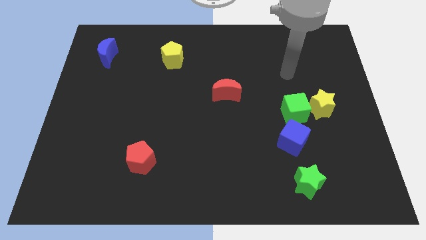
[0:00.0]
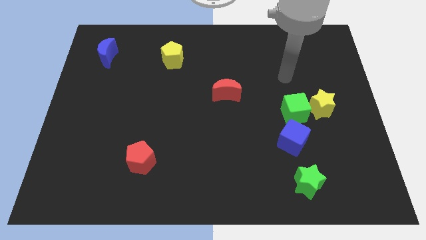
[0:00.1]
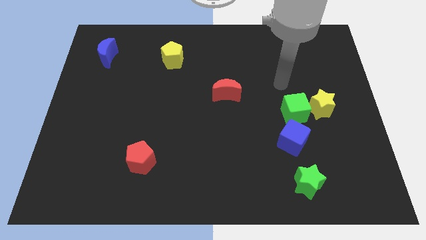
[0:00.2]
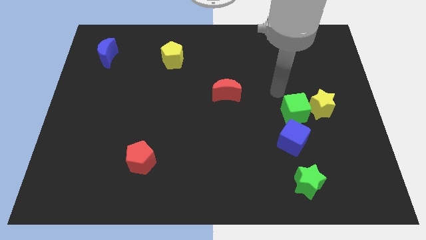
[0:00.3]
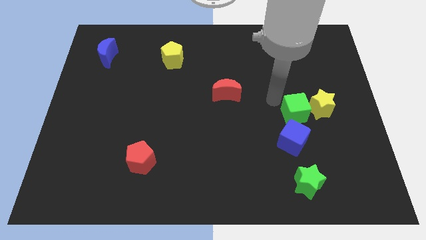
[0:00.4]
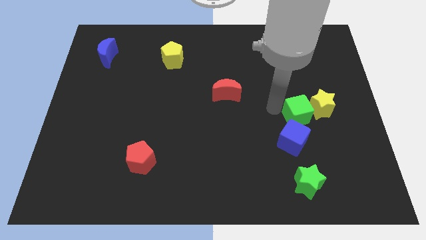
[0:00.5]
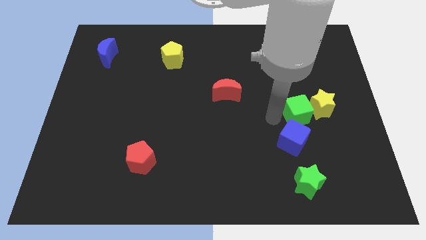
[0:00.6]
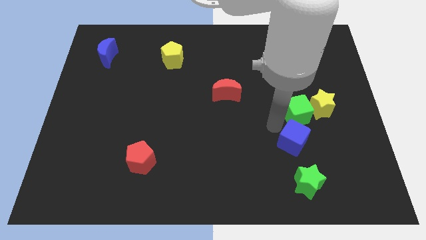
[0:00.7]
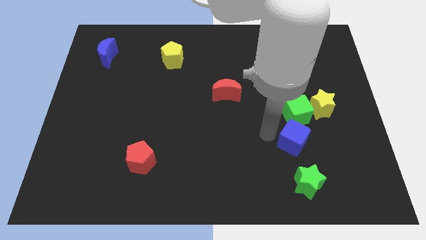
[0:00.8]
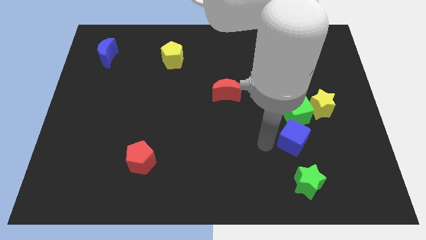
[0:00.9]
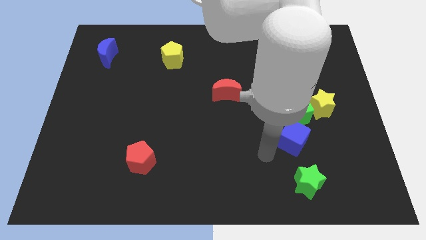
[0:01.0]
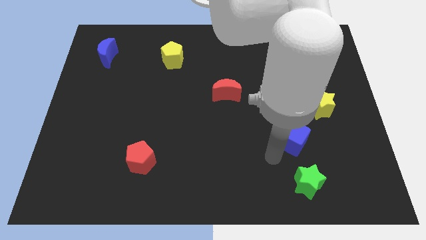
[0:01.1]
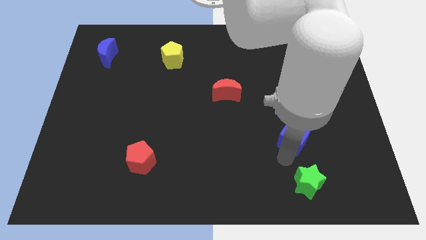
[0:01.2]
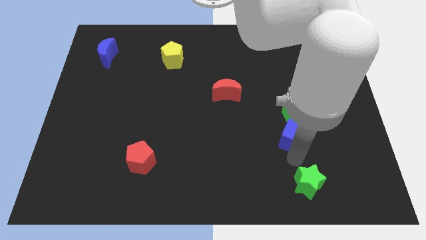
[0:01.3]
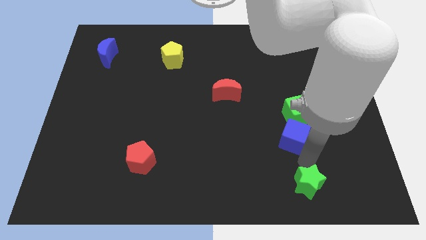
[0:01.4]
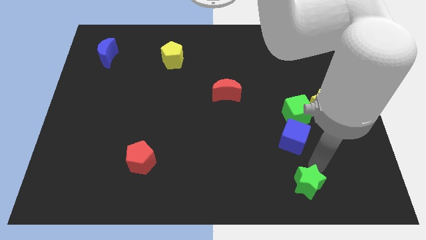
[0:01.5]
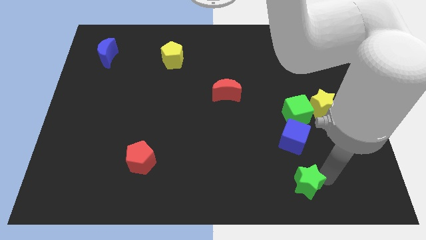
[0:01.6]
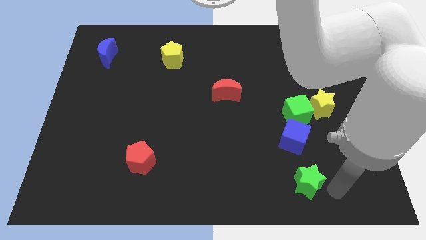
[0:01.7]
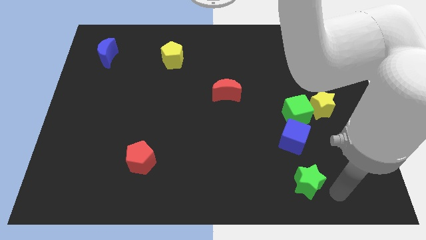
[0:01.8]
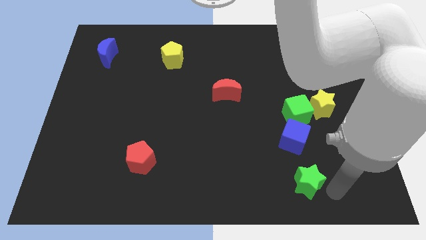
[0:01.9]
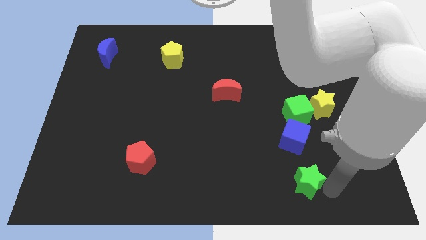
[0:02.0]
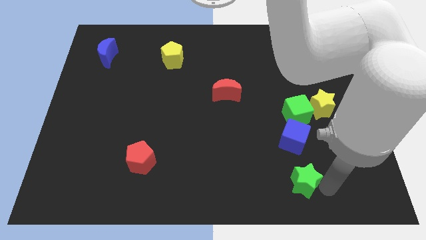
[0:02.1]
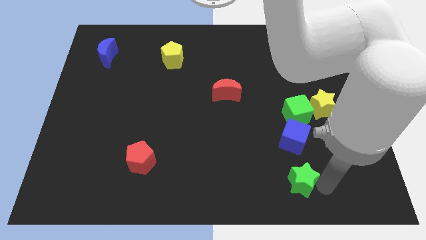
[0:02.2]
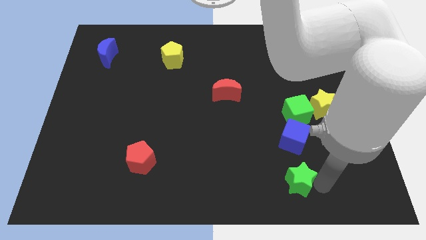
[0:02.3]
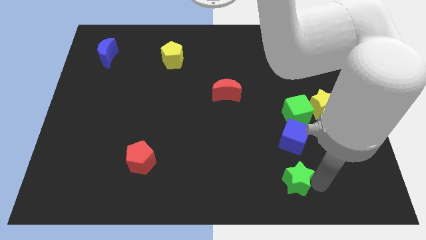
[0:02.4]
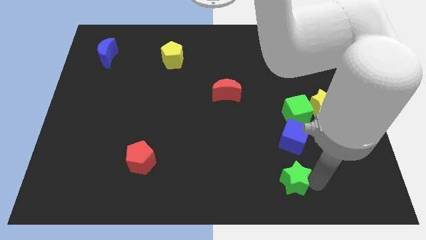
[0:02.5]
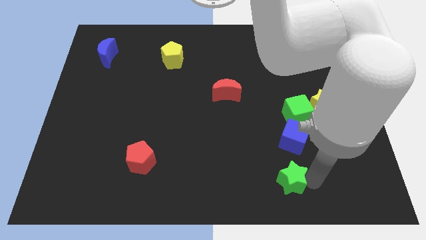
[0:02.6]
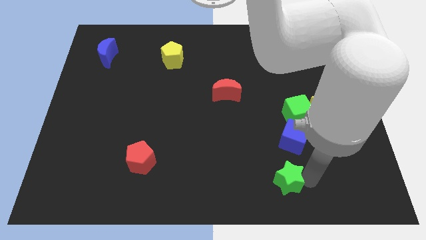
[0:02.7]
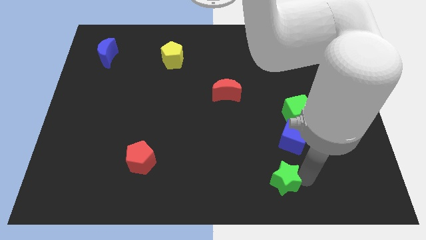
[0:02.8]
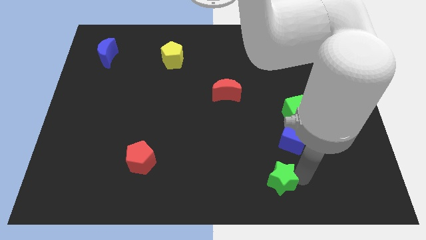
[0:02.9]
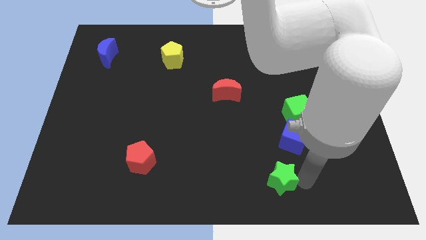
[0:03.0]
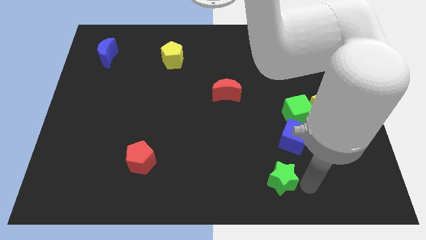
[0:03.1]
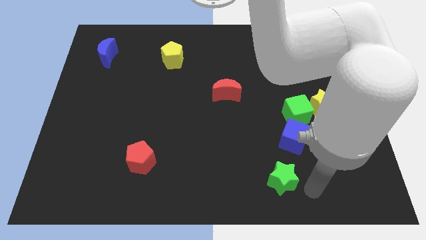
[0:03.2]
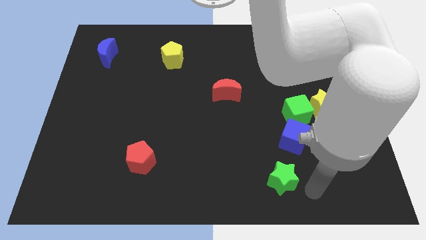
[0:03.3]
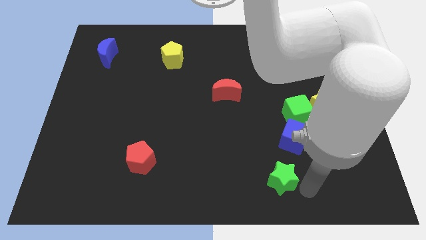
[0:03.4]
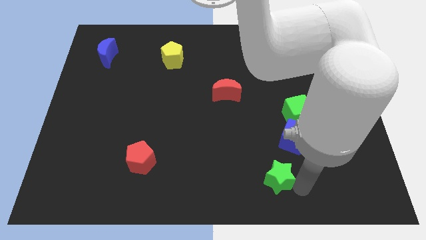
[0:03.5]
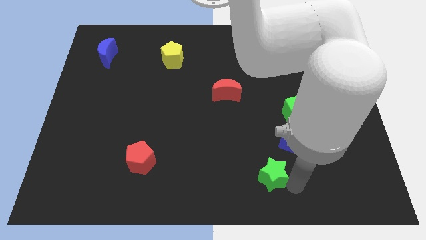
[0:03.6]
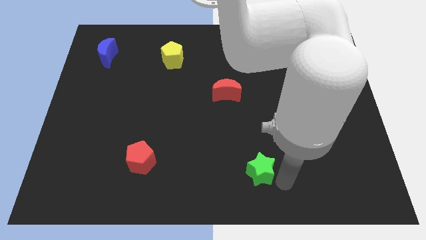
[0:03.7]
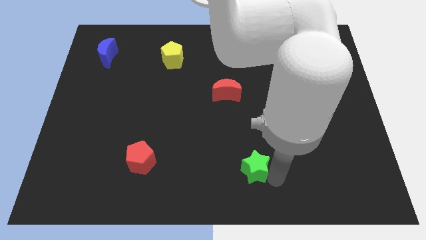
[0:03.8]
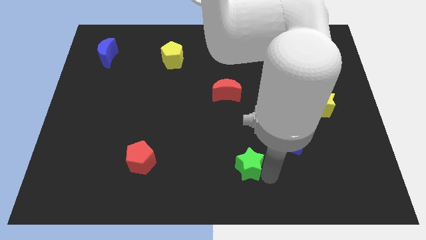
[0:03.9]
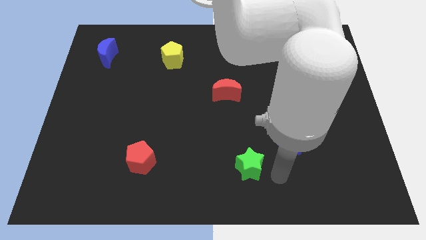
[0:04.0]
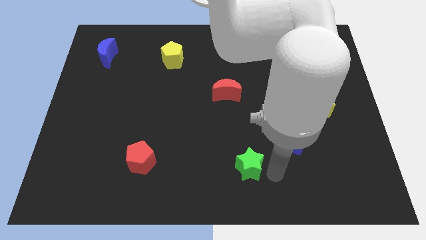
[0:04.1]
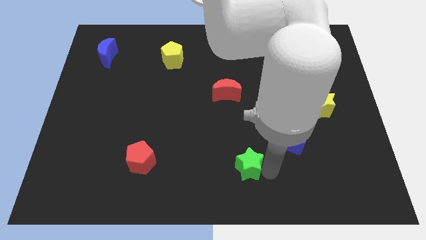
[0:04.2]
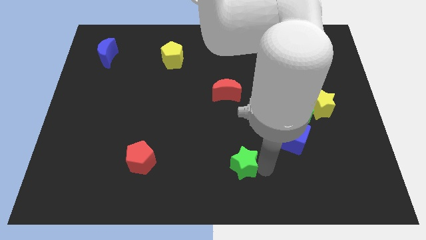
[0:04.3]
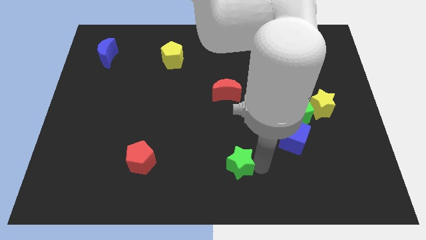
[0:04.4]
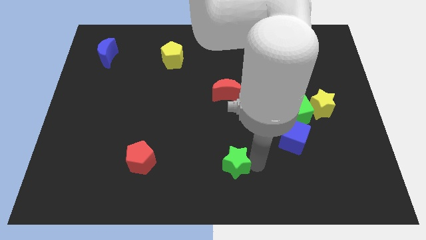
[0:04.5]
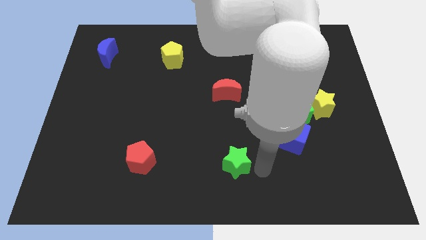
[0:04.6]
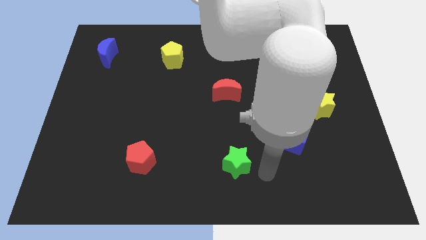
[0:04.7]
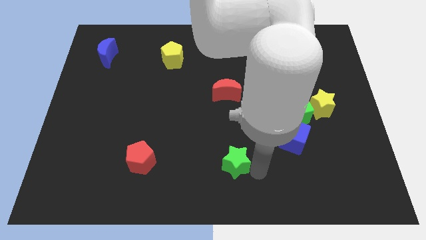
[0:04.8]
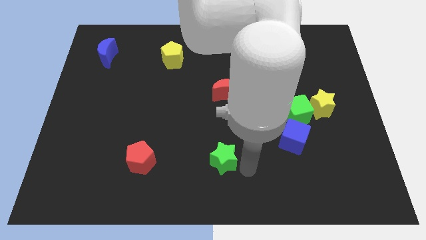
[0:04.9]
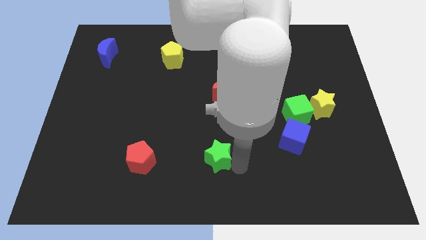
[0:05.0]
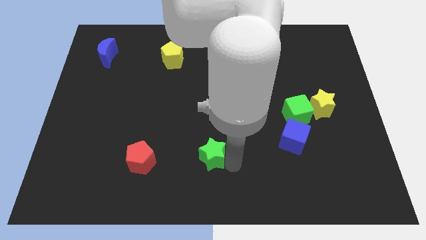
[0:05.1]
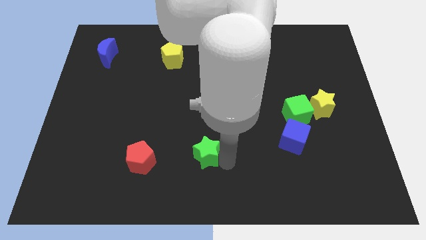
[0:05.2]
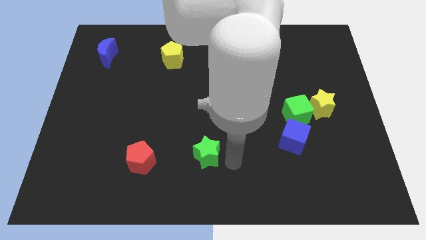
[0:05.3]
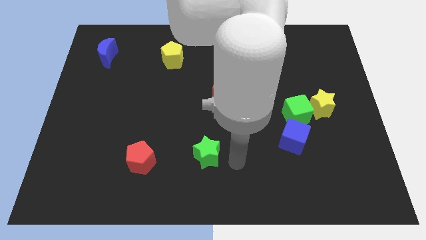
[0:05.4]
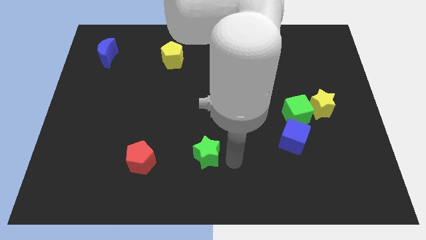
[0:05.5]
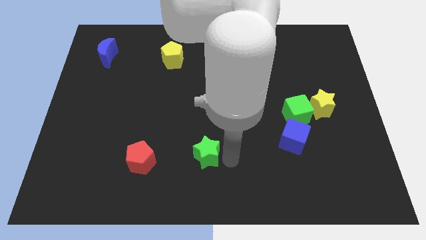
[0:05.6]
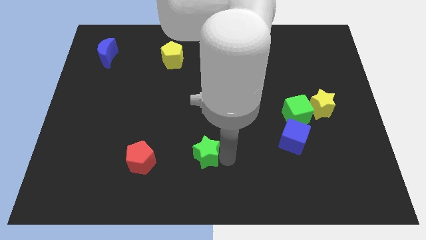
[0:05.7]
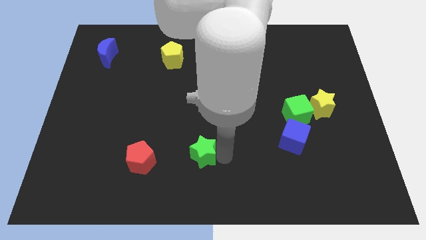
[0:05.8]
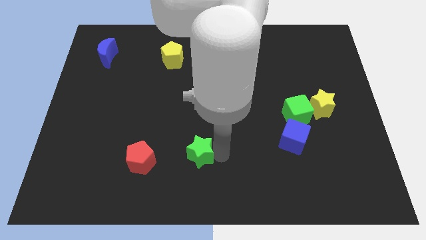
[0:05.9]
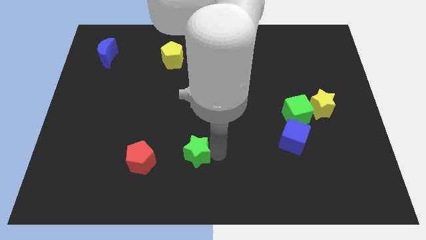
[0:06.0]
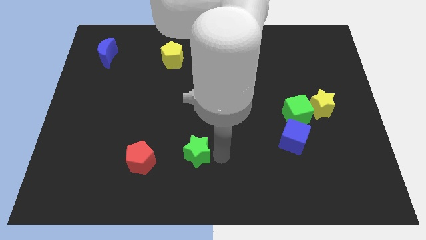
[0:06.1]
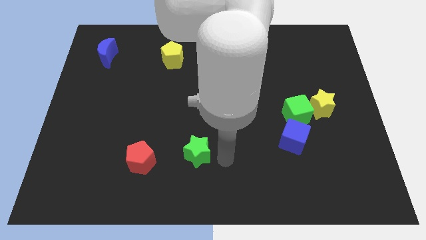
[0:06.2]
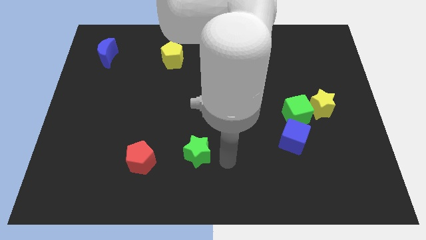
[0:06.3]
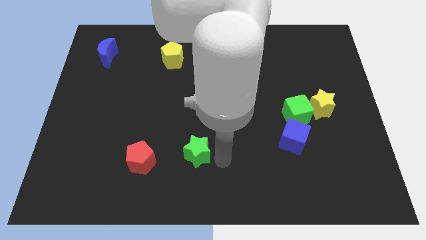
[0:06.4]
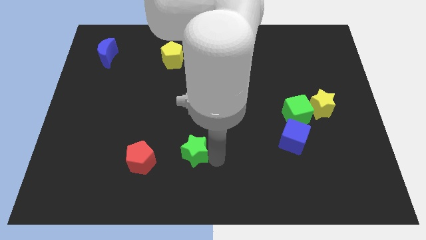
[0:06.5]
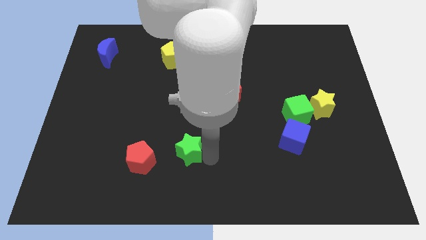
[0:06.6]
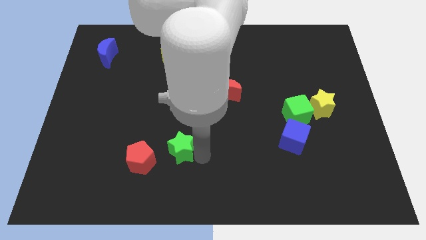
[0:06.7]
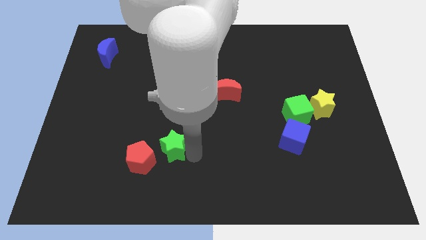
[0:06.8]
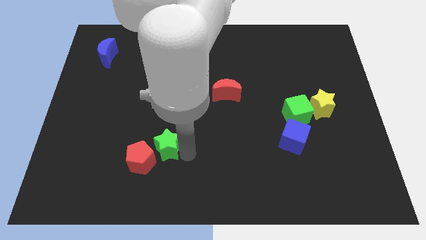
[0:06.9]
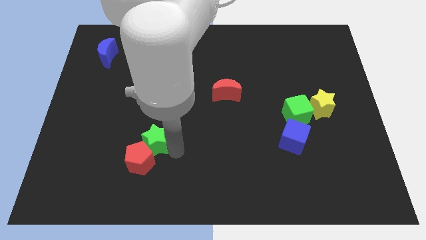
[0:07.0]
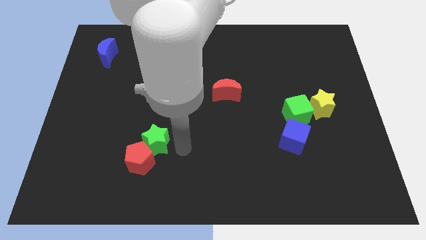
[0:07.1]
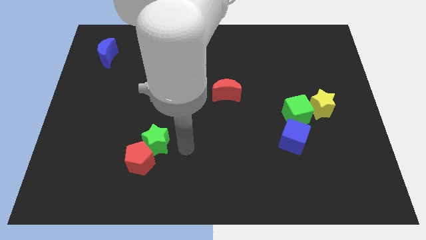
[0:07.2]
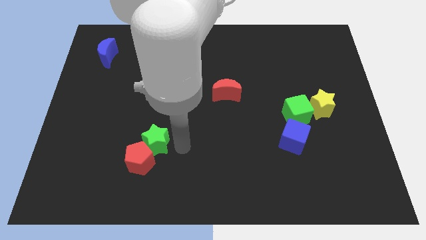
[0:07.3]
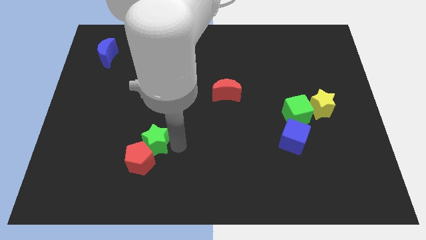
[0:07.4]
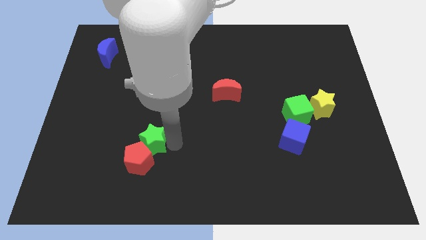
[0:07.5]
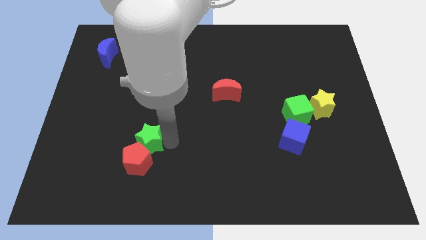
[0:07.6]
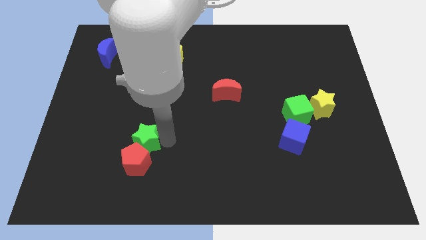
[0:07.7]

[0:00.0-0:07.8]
push the green star to the top left of the red pentagon
